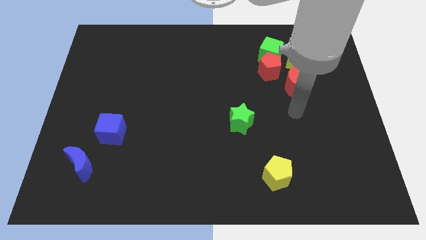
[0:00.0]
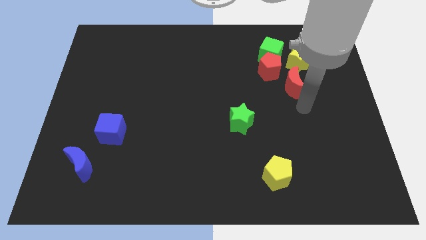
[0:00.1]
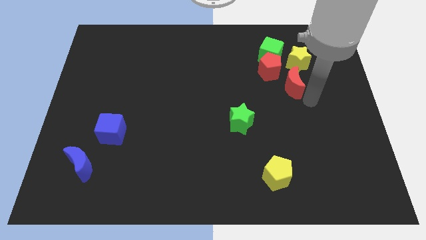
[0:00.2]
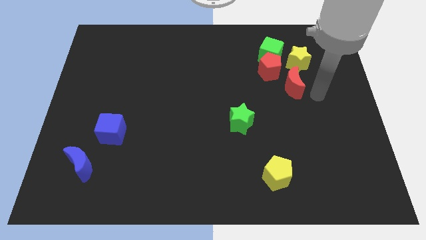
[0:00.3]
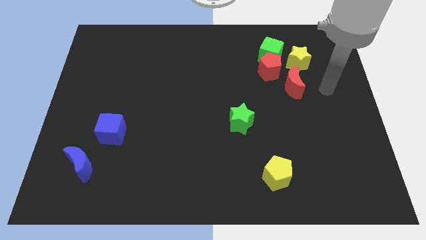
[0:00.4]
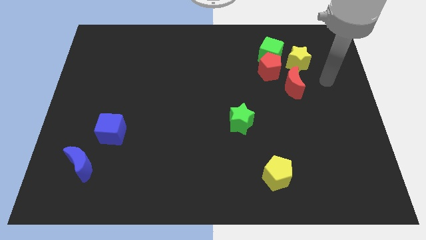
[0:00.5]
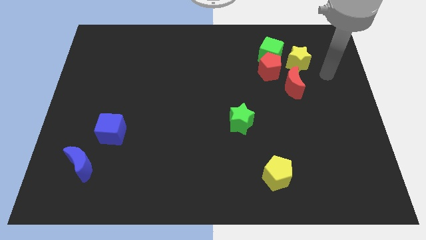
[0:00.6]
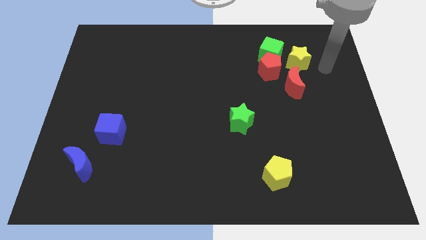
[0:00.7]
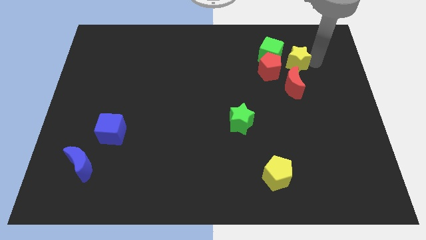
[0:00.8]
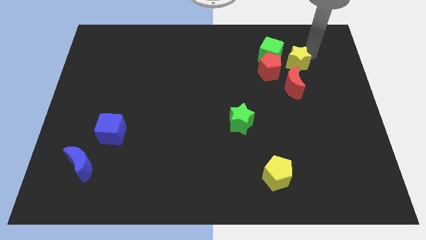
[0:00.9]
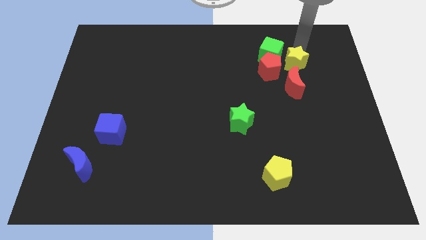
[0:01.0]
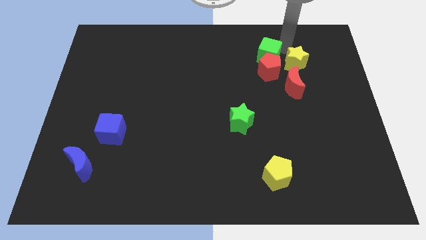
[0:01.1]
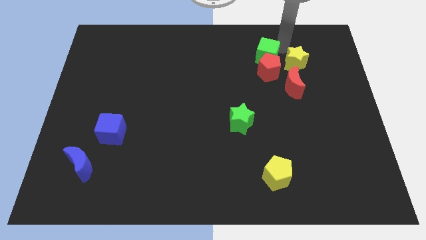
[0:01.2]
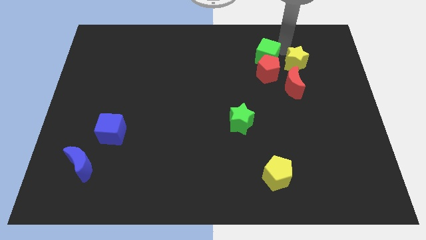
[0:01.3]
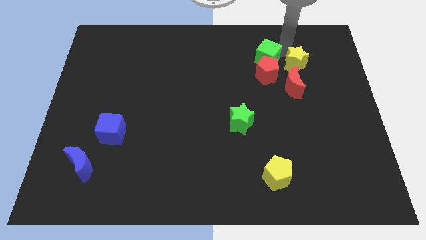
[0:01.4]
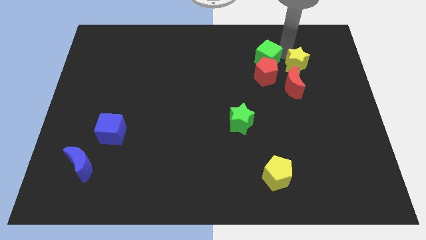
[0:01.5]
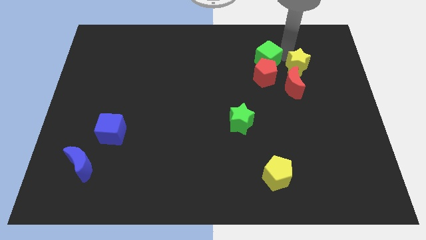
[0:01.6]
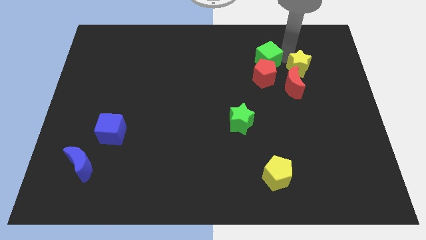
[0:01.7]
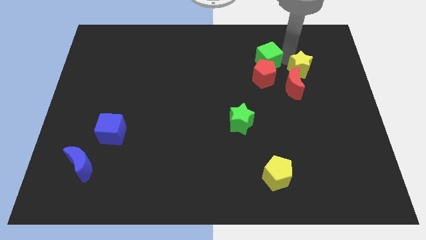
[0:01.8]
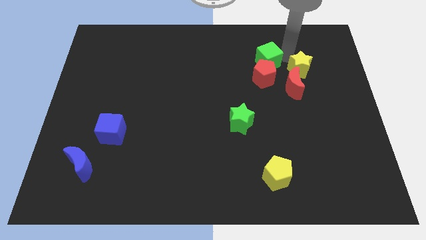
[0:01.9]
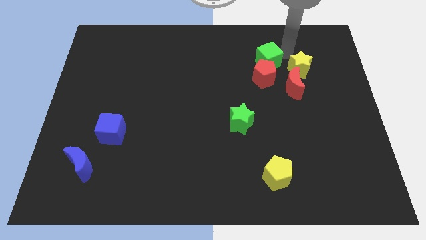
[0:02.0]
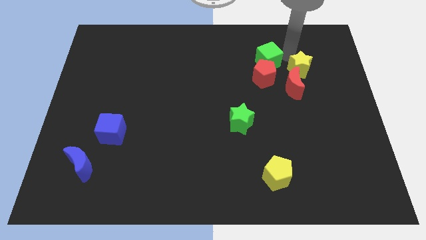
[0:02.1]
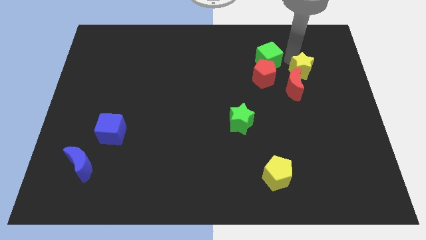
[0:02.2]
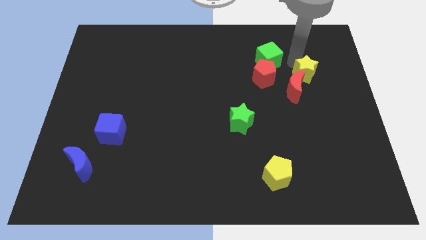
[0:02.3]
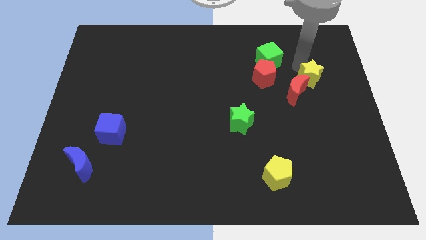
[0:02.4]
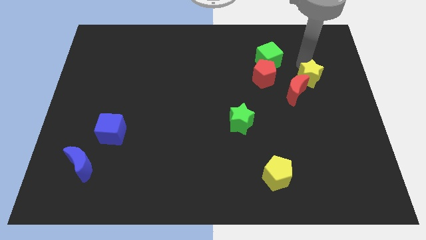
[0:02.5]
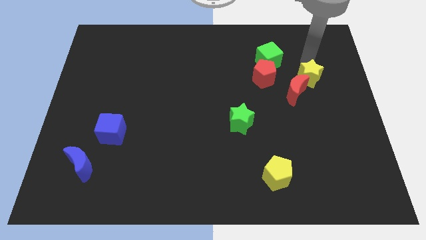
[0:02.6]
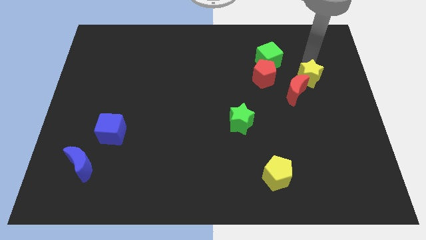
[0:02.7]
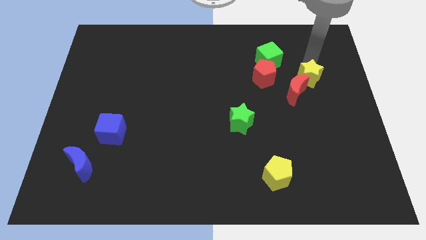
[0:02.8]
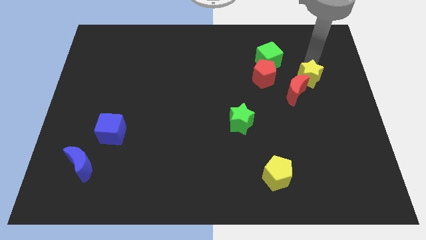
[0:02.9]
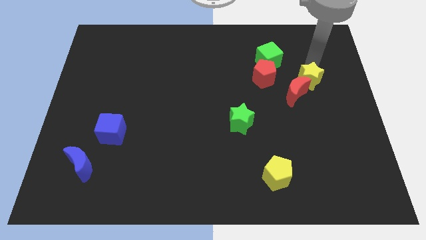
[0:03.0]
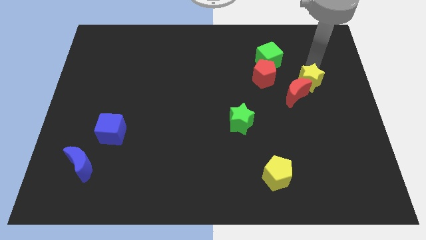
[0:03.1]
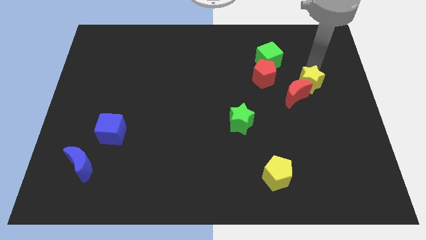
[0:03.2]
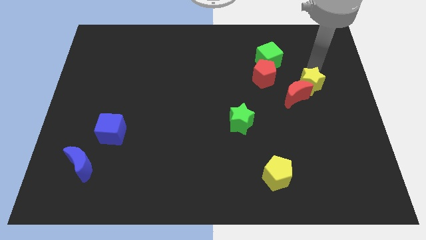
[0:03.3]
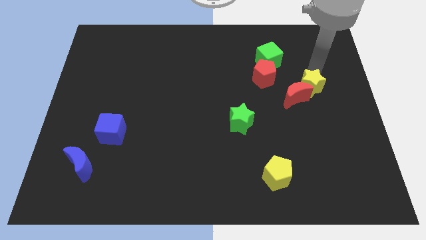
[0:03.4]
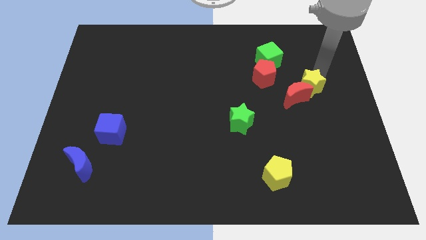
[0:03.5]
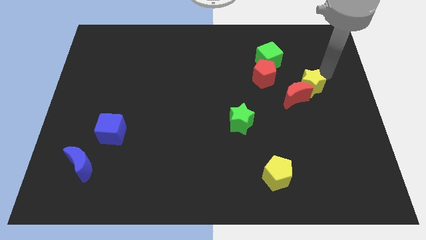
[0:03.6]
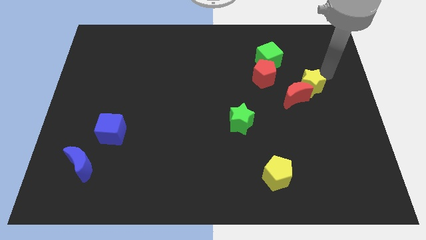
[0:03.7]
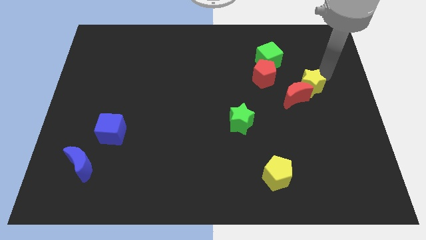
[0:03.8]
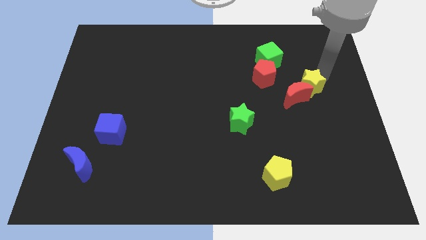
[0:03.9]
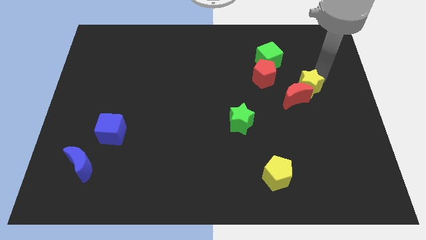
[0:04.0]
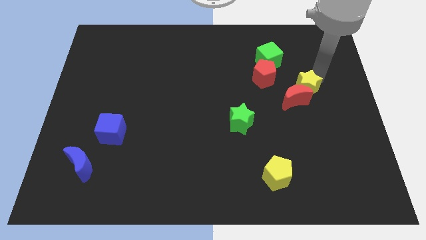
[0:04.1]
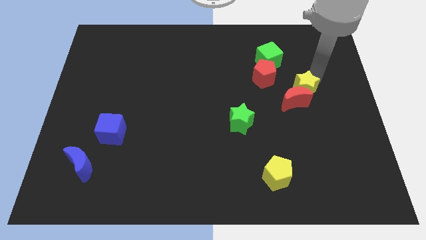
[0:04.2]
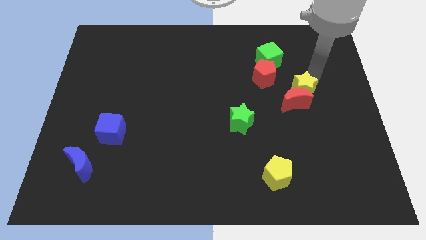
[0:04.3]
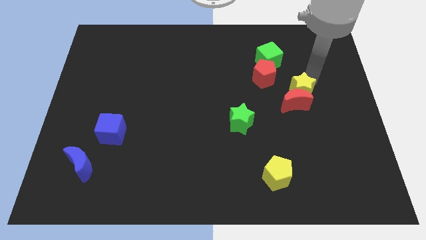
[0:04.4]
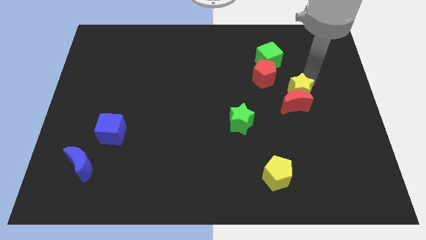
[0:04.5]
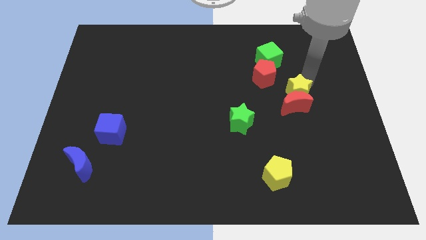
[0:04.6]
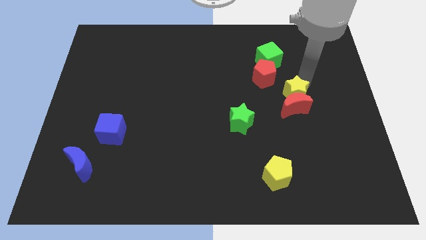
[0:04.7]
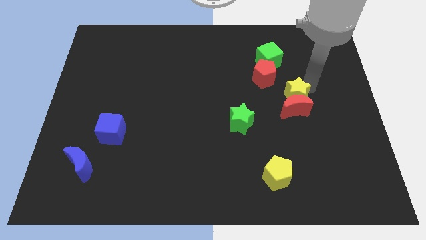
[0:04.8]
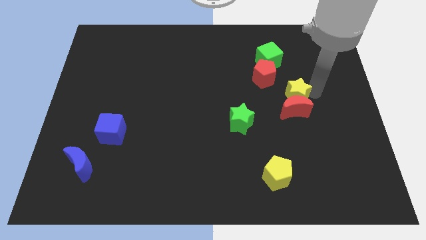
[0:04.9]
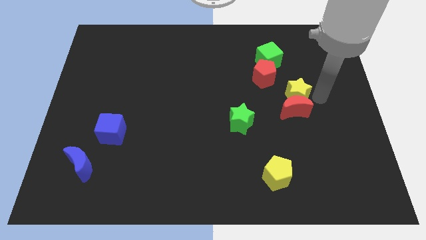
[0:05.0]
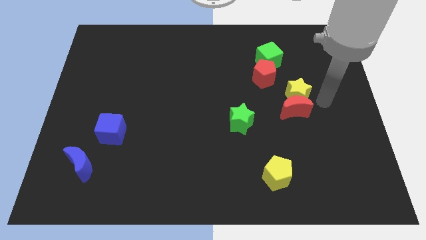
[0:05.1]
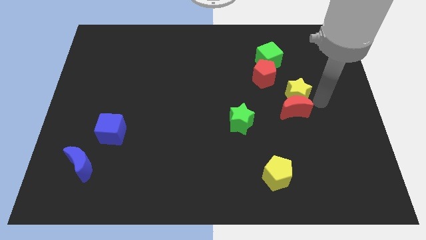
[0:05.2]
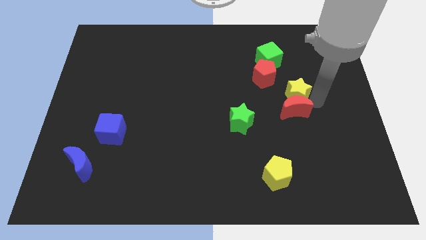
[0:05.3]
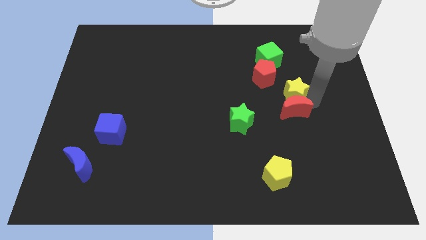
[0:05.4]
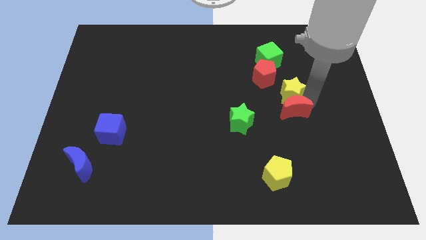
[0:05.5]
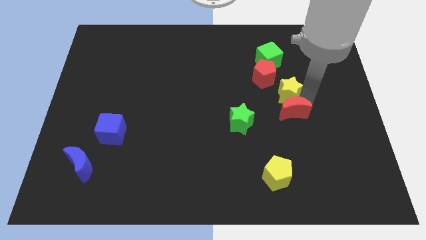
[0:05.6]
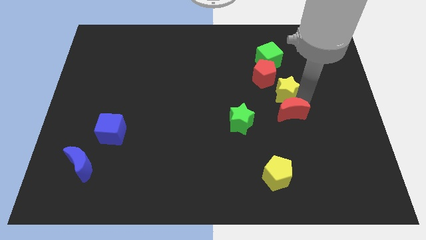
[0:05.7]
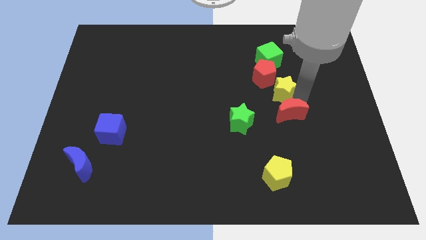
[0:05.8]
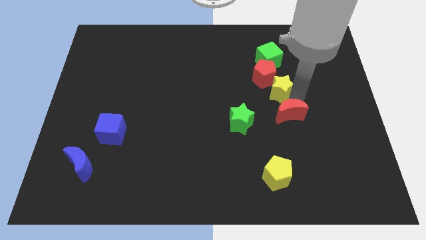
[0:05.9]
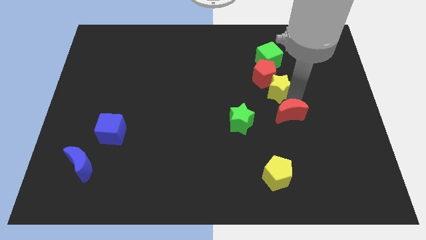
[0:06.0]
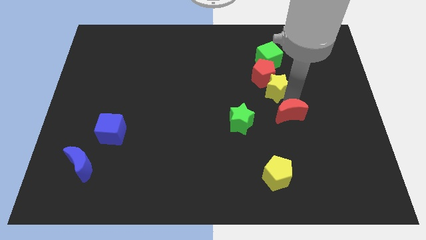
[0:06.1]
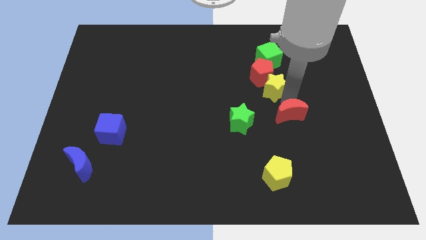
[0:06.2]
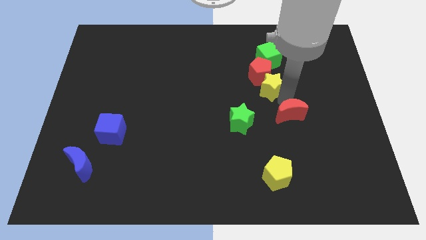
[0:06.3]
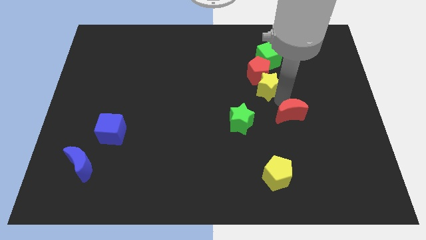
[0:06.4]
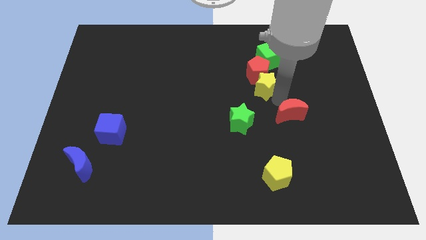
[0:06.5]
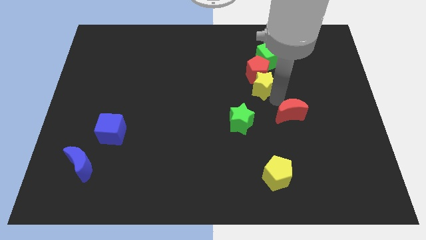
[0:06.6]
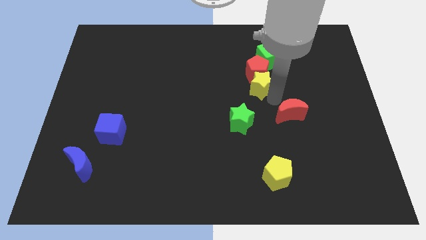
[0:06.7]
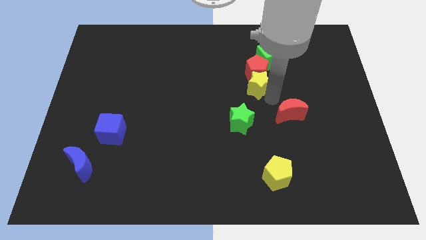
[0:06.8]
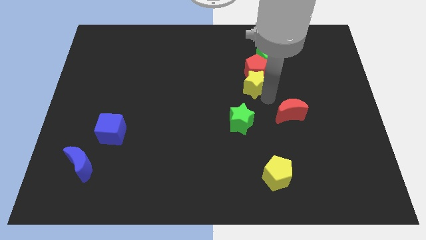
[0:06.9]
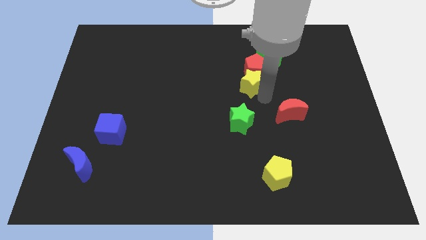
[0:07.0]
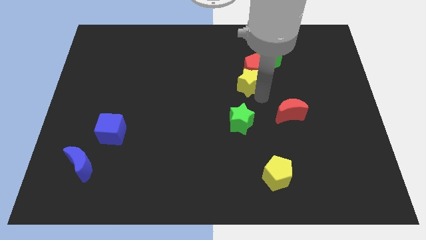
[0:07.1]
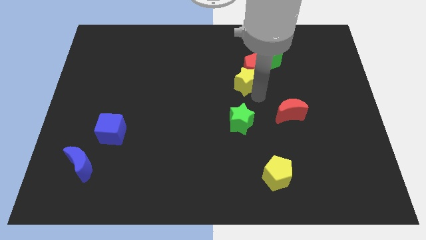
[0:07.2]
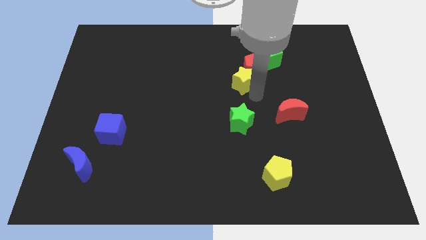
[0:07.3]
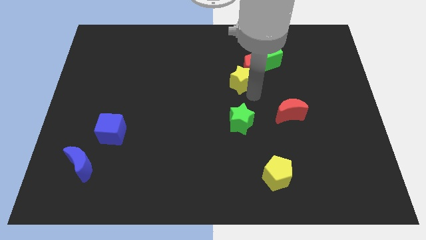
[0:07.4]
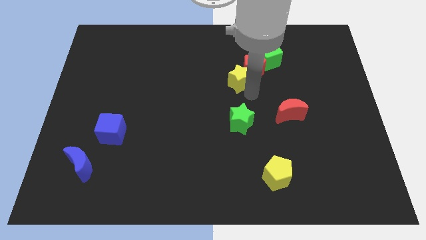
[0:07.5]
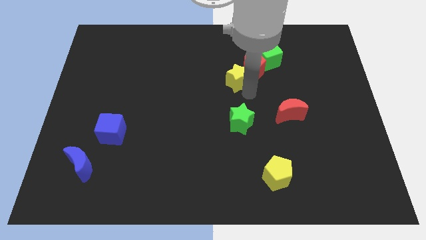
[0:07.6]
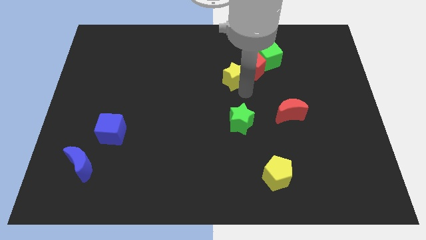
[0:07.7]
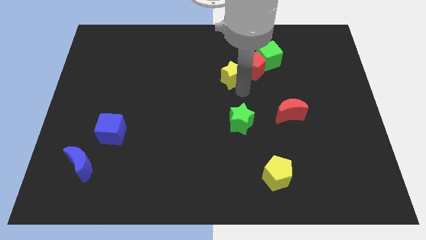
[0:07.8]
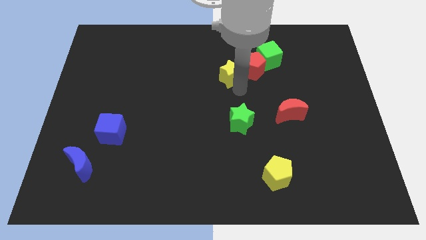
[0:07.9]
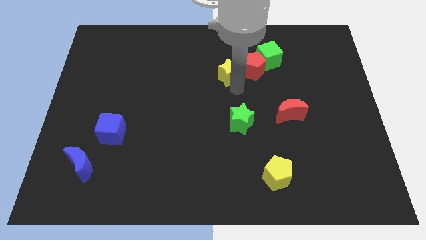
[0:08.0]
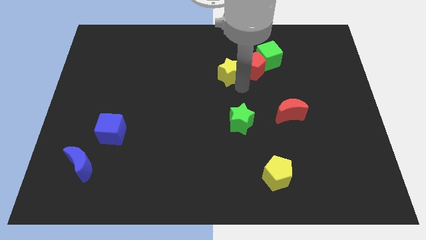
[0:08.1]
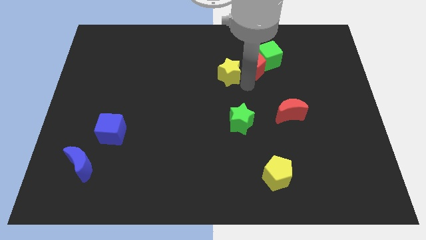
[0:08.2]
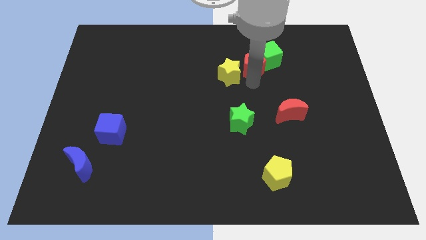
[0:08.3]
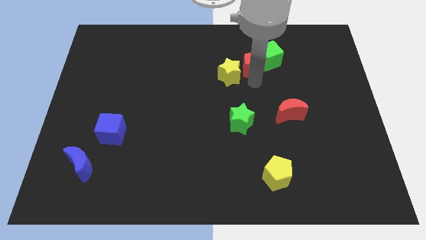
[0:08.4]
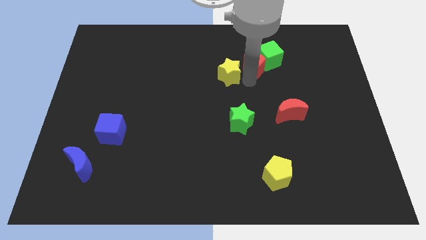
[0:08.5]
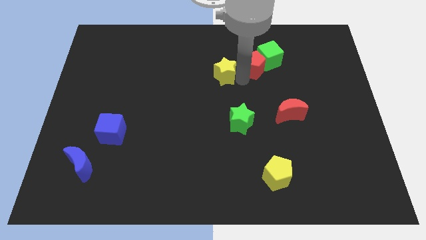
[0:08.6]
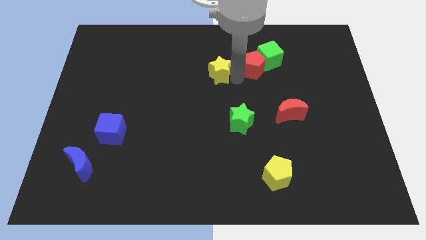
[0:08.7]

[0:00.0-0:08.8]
push the yellow star to the left
